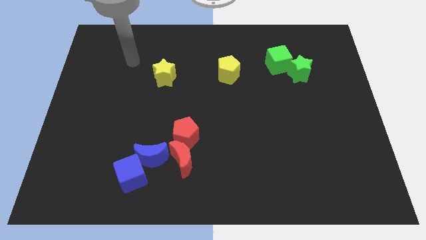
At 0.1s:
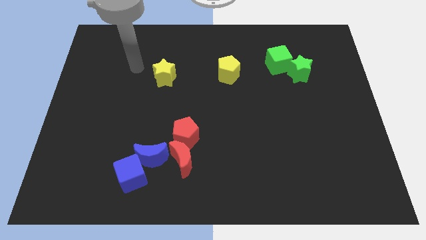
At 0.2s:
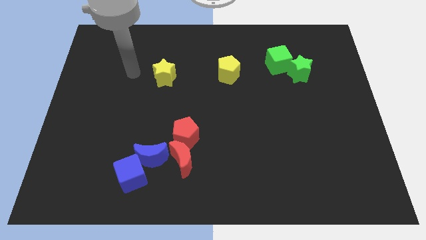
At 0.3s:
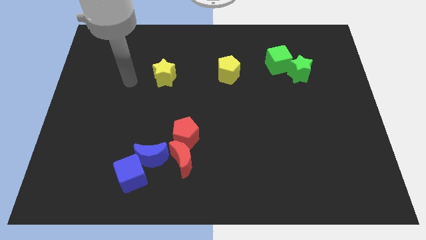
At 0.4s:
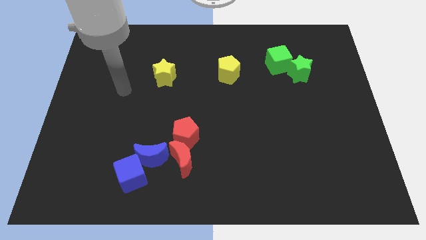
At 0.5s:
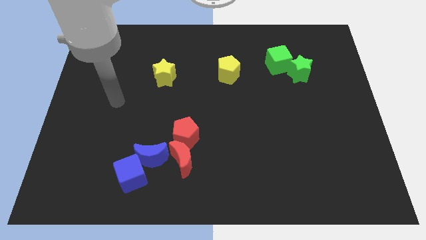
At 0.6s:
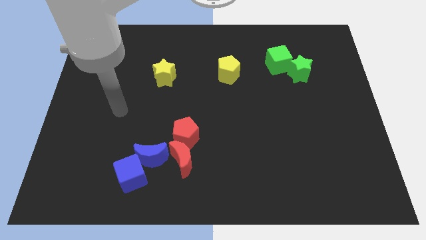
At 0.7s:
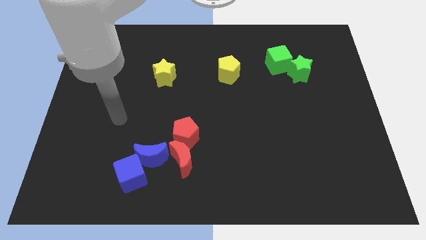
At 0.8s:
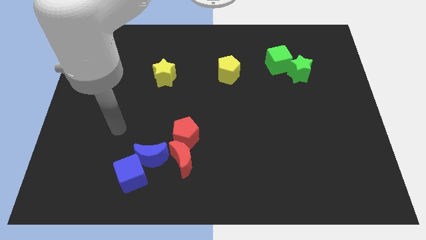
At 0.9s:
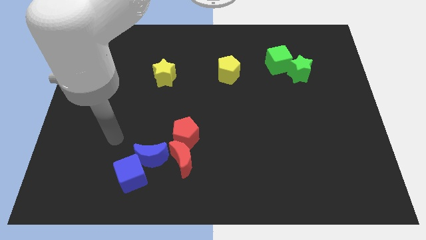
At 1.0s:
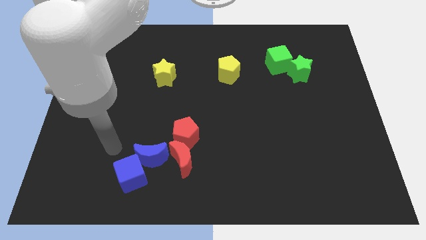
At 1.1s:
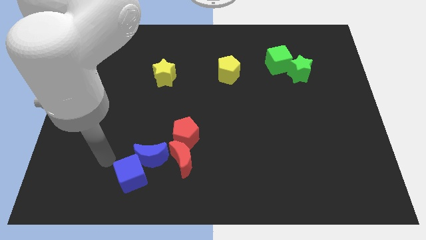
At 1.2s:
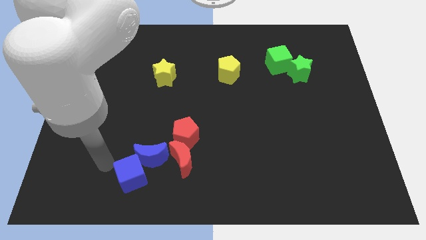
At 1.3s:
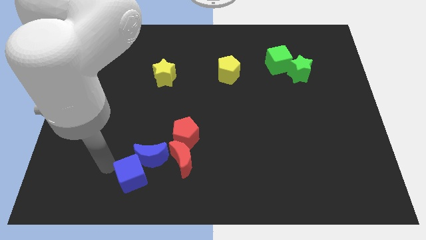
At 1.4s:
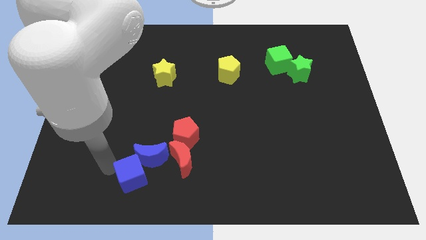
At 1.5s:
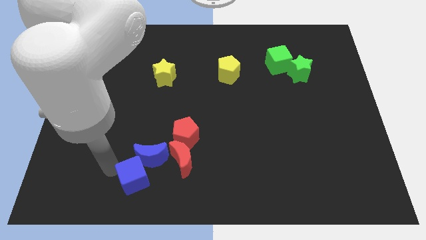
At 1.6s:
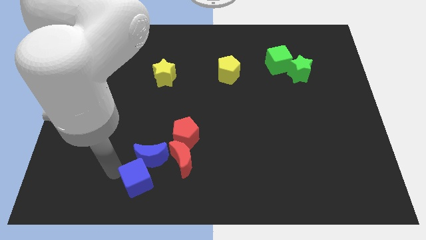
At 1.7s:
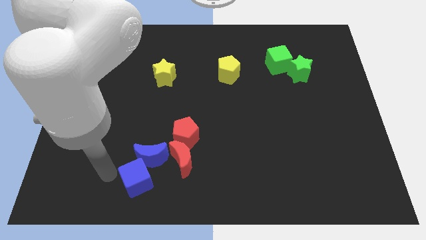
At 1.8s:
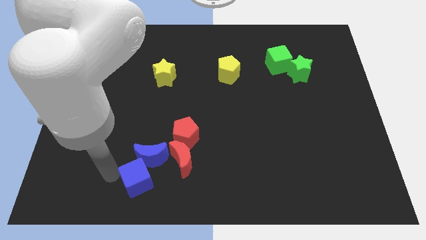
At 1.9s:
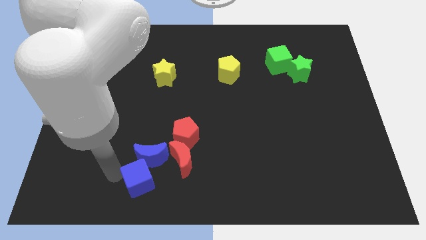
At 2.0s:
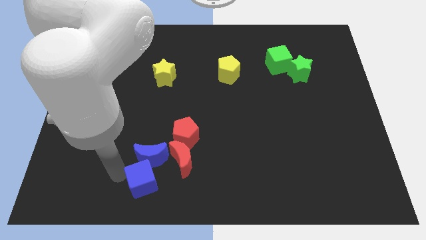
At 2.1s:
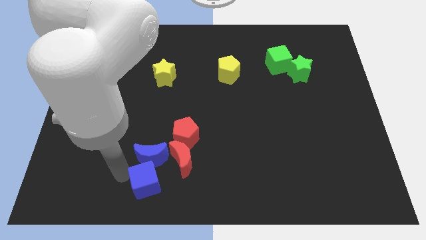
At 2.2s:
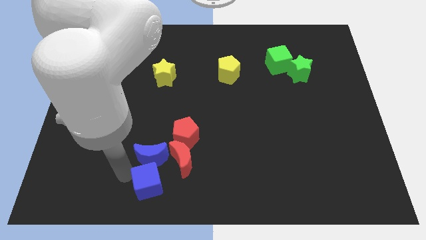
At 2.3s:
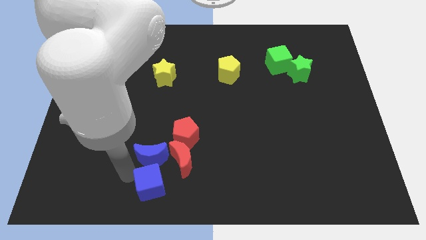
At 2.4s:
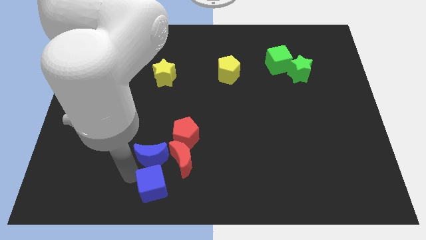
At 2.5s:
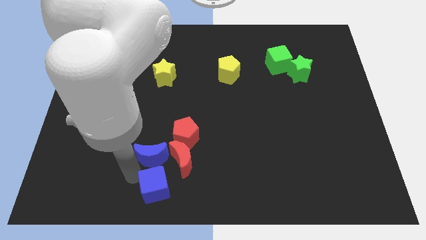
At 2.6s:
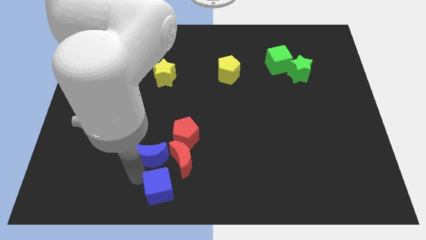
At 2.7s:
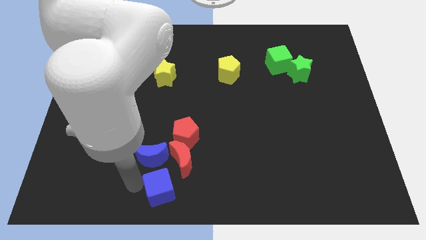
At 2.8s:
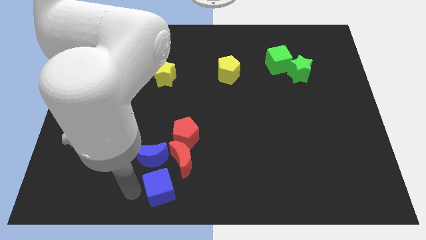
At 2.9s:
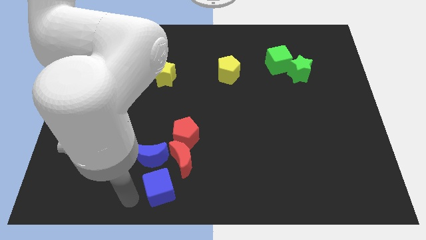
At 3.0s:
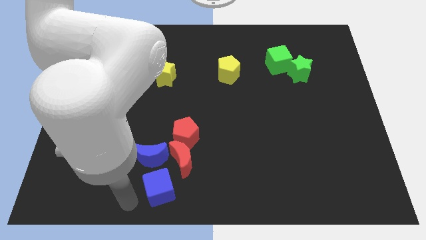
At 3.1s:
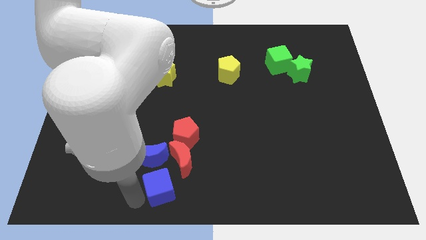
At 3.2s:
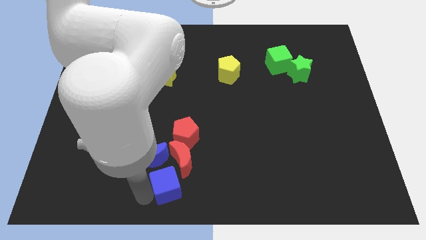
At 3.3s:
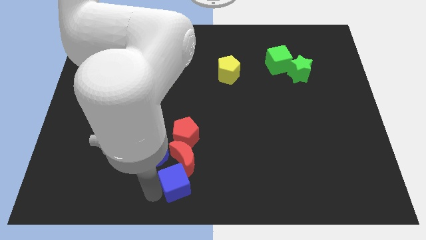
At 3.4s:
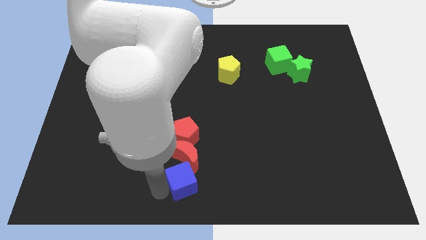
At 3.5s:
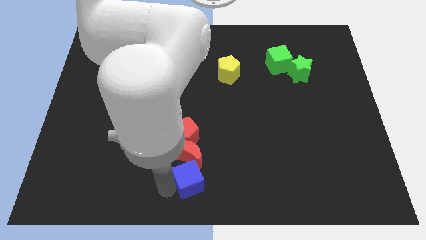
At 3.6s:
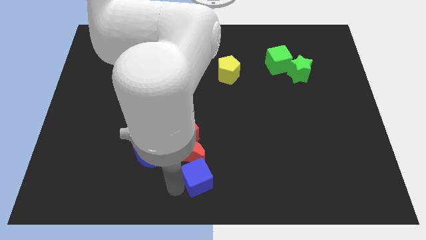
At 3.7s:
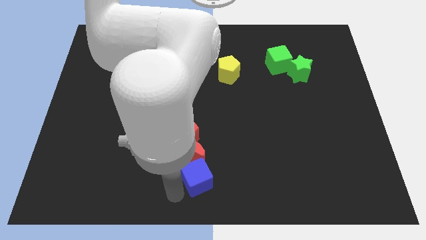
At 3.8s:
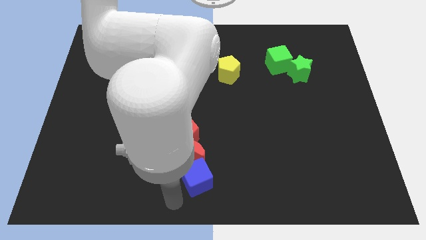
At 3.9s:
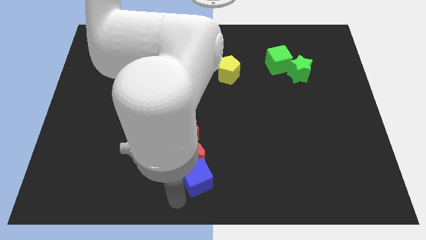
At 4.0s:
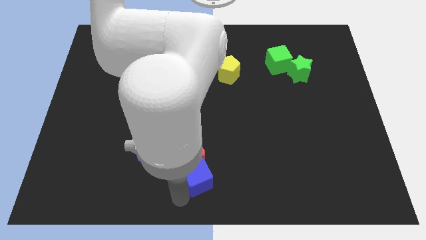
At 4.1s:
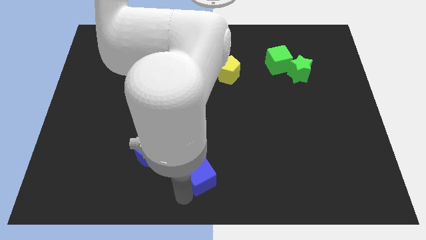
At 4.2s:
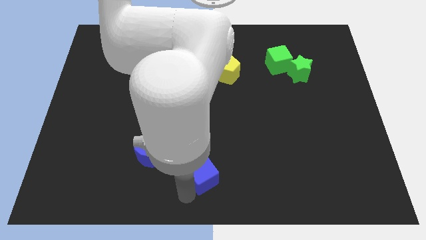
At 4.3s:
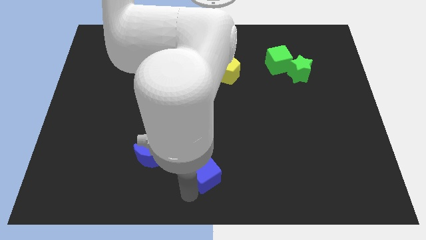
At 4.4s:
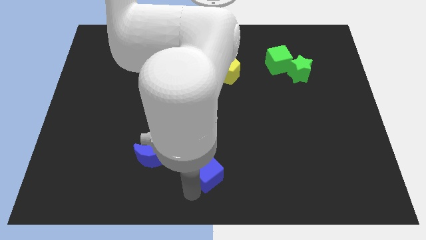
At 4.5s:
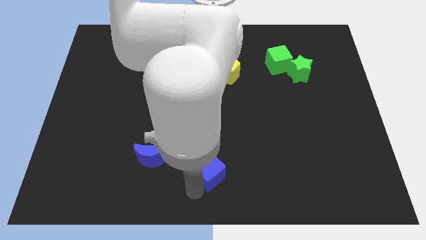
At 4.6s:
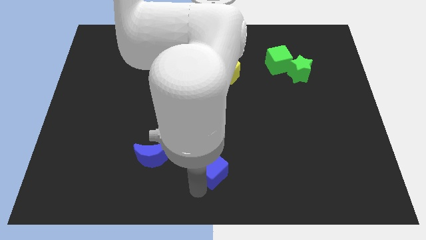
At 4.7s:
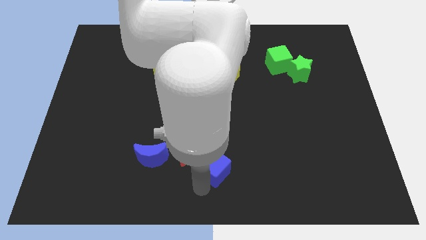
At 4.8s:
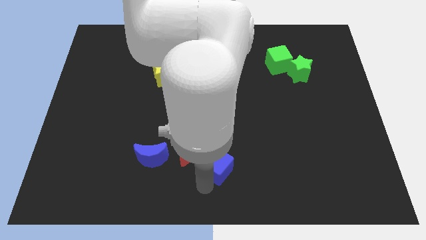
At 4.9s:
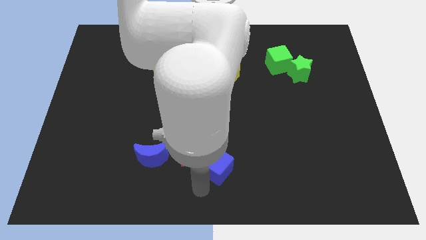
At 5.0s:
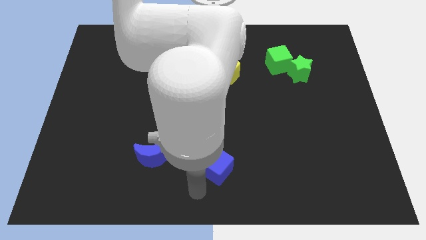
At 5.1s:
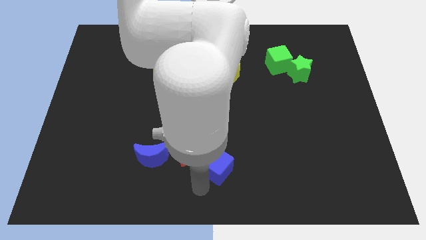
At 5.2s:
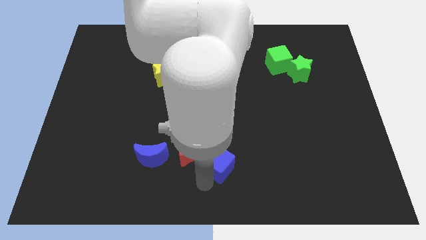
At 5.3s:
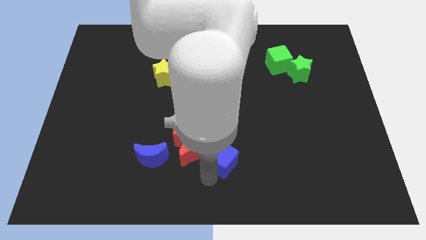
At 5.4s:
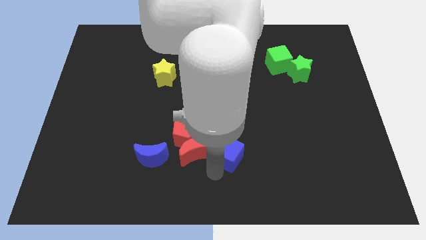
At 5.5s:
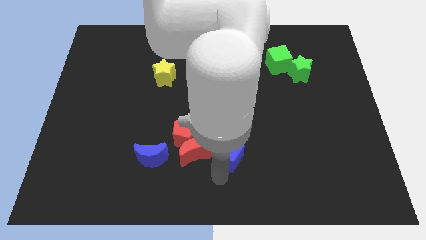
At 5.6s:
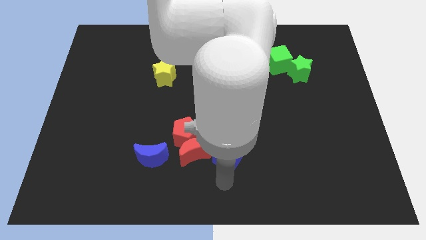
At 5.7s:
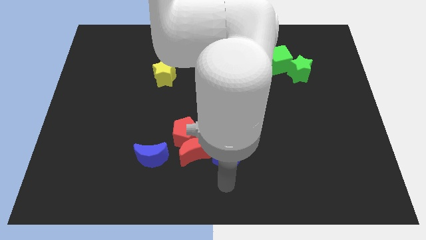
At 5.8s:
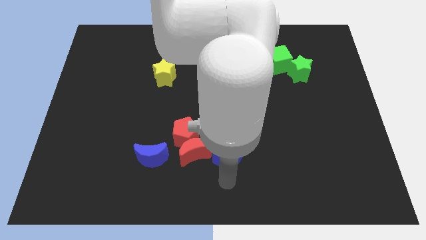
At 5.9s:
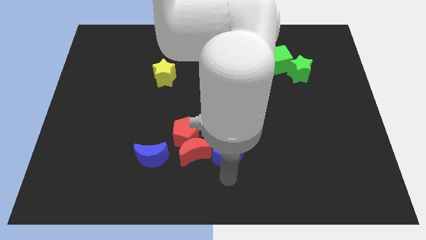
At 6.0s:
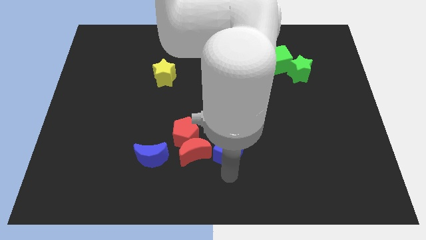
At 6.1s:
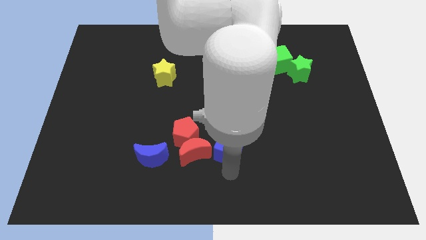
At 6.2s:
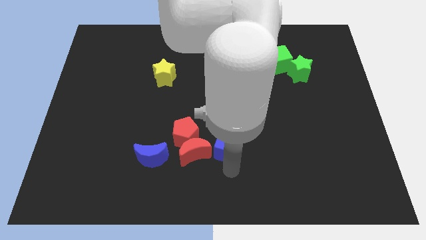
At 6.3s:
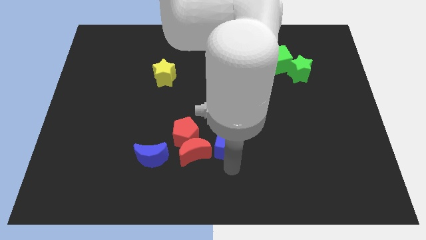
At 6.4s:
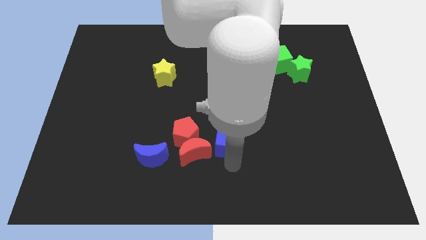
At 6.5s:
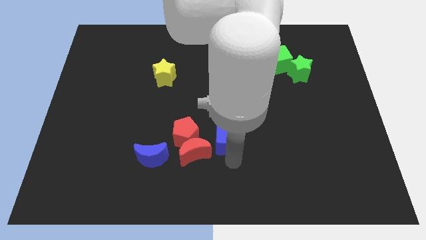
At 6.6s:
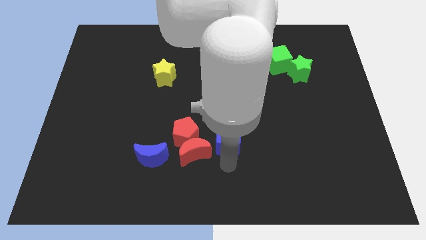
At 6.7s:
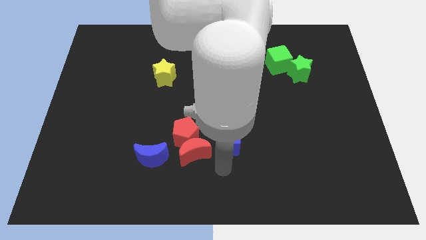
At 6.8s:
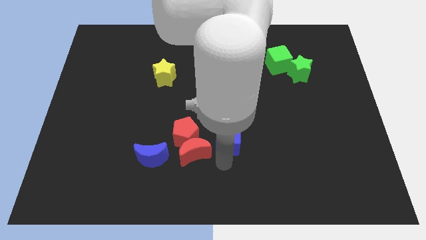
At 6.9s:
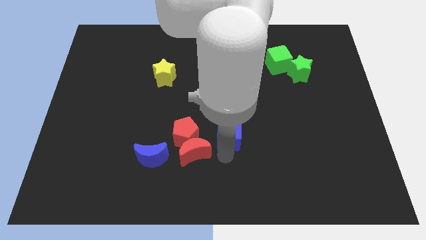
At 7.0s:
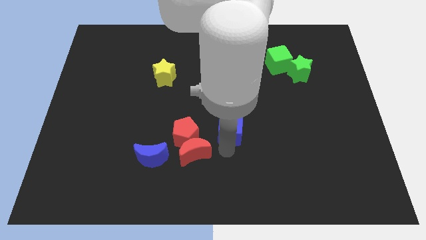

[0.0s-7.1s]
push the blue cube diagonally upwards and right

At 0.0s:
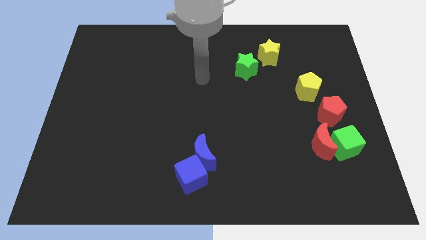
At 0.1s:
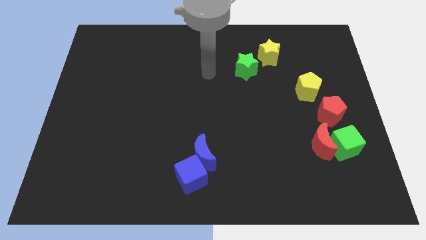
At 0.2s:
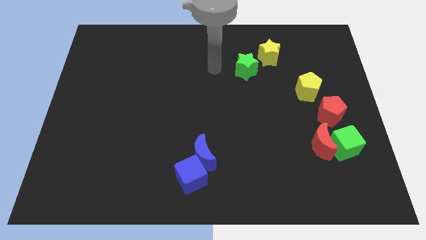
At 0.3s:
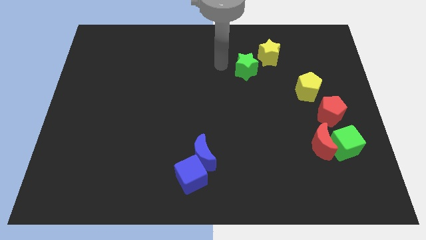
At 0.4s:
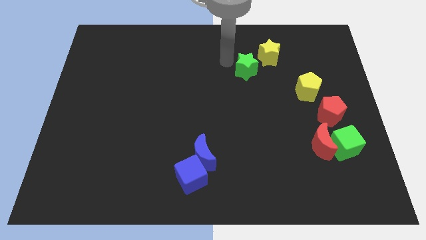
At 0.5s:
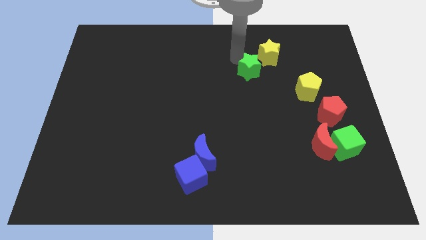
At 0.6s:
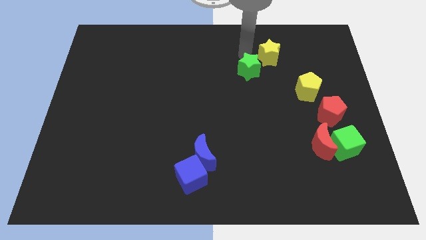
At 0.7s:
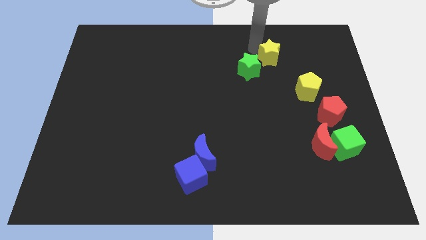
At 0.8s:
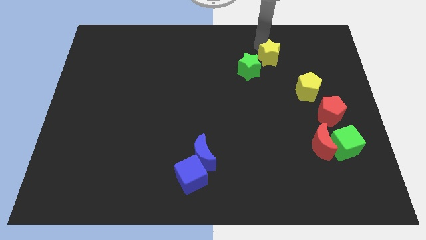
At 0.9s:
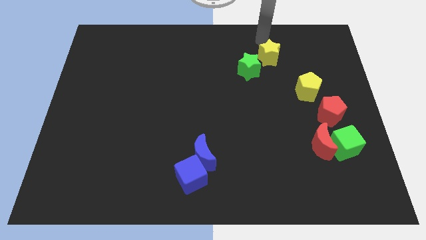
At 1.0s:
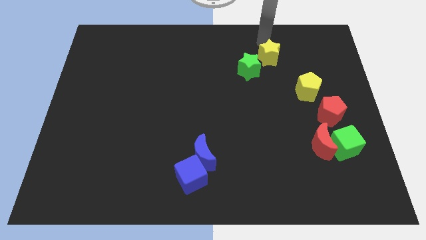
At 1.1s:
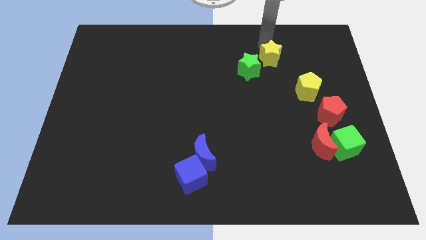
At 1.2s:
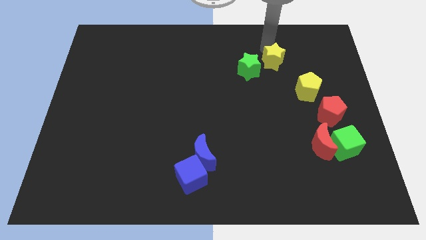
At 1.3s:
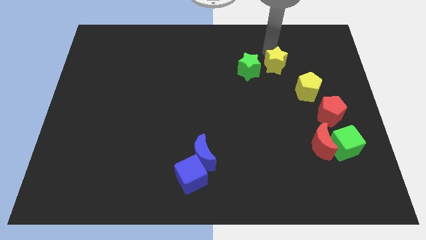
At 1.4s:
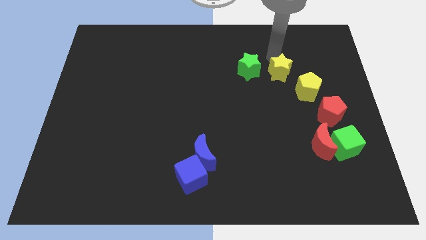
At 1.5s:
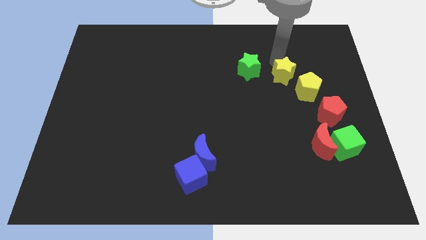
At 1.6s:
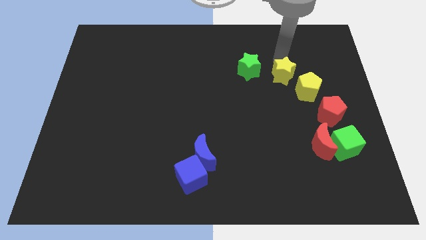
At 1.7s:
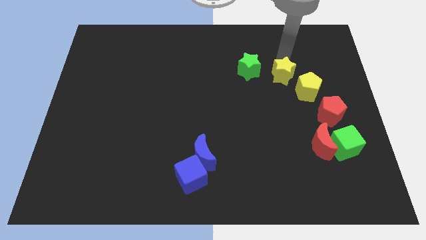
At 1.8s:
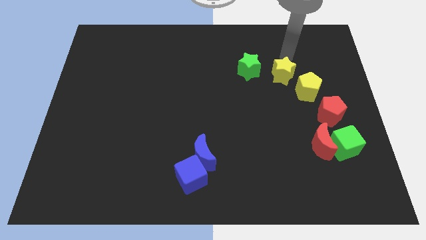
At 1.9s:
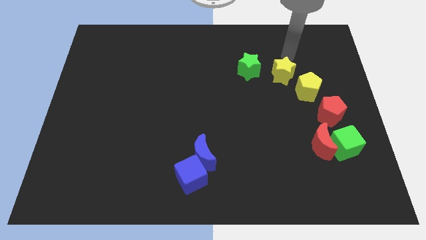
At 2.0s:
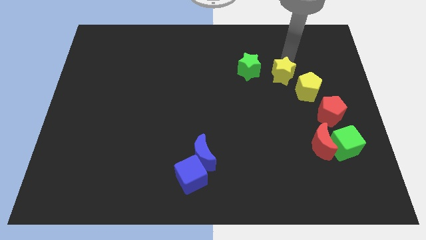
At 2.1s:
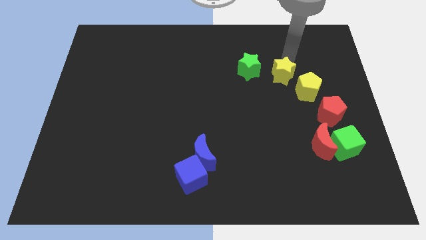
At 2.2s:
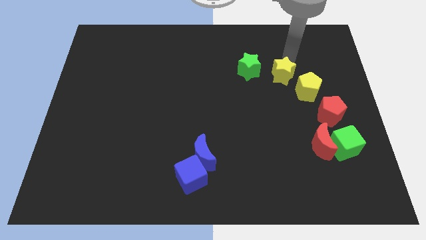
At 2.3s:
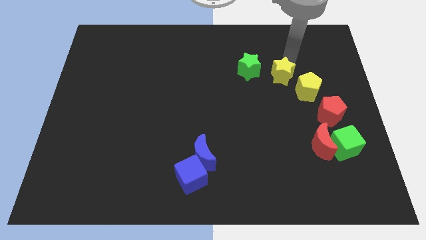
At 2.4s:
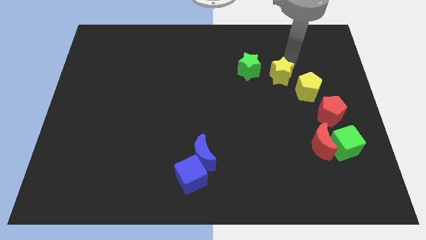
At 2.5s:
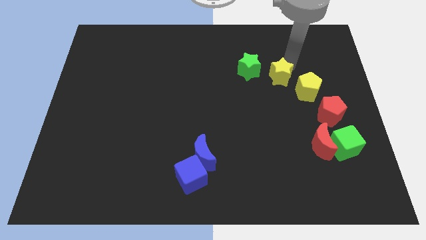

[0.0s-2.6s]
slide the yellow star downwards somewhat
